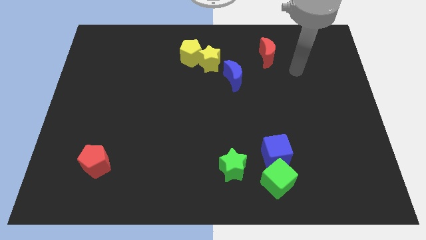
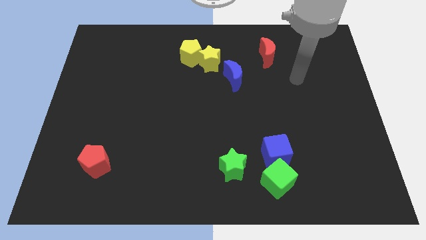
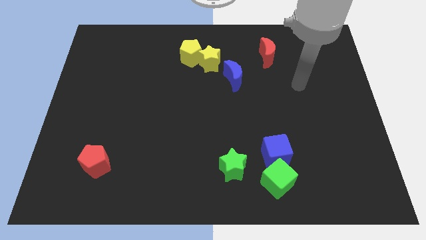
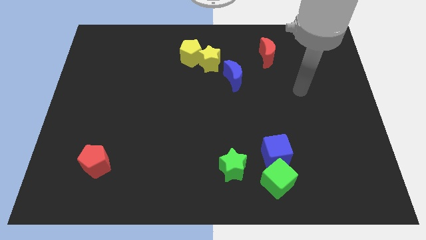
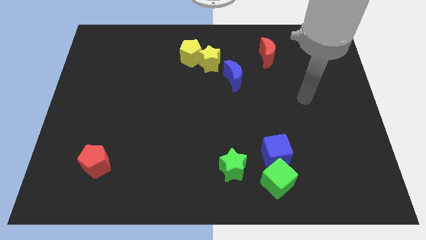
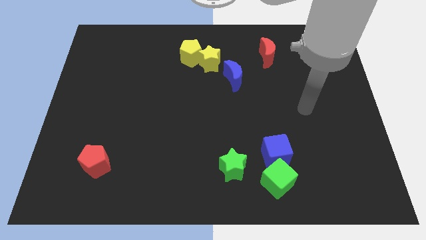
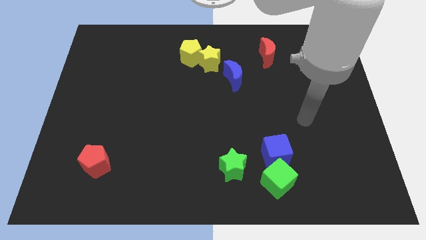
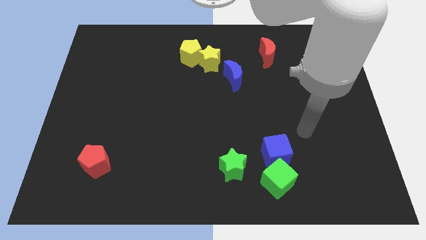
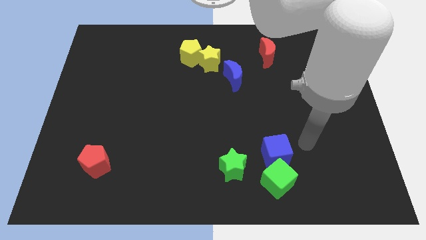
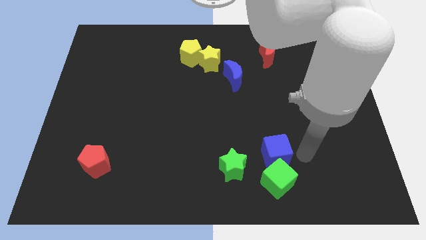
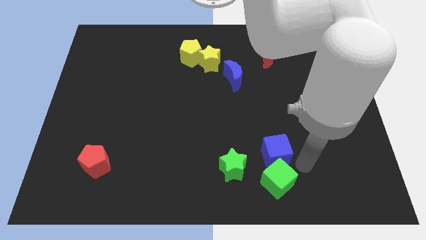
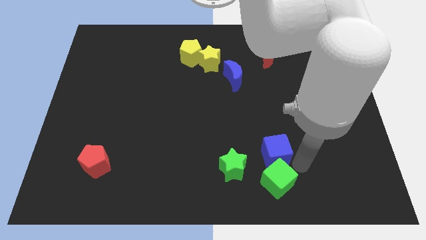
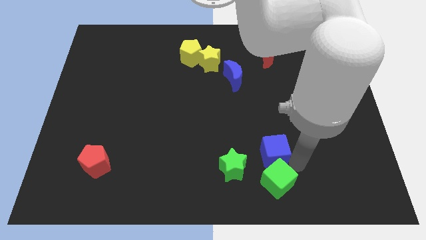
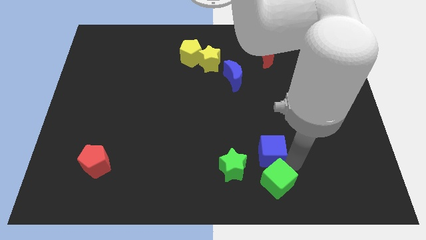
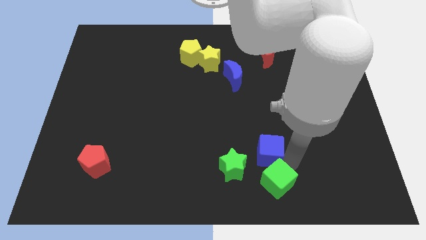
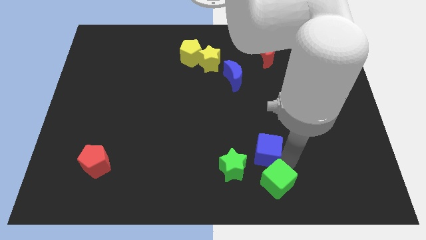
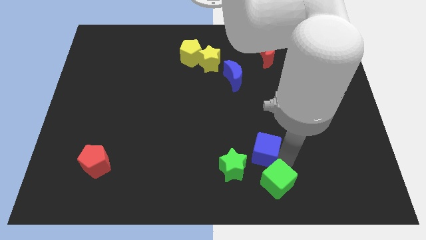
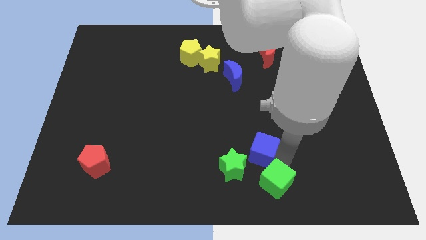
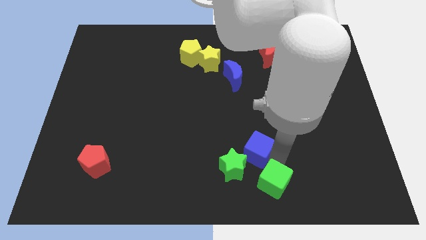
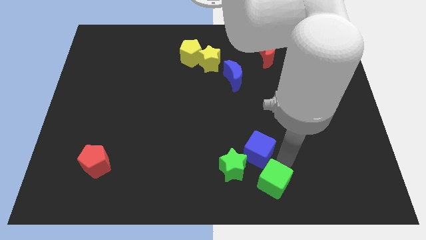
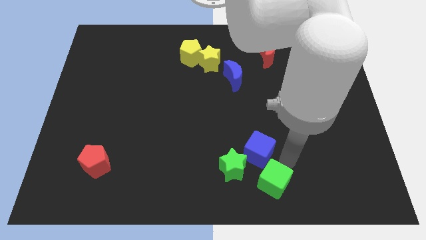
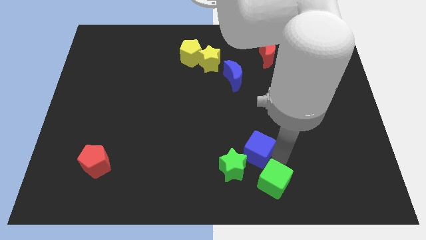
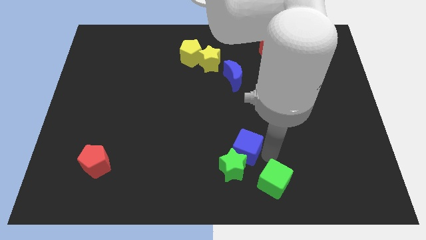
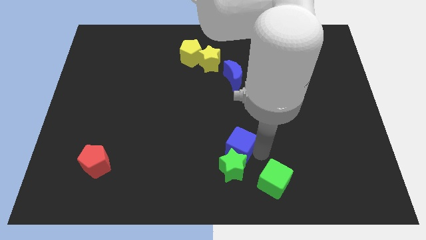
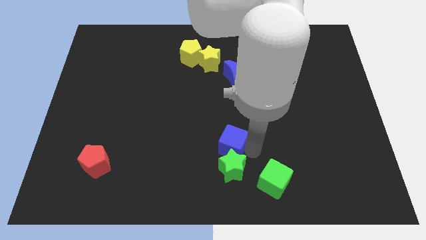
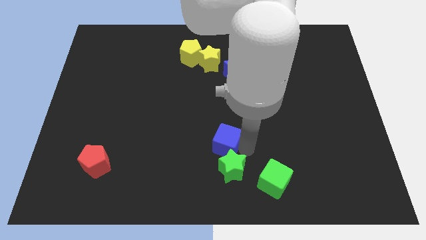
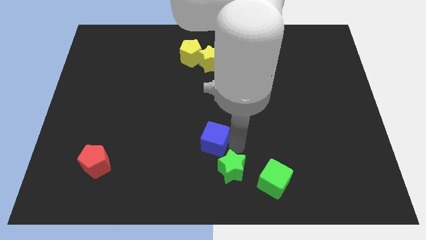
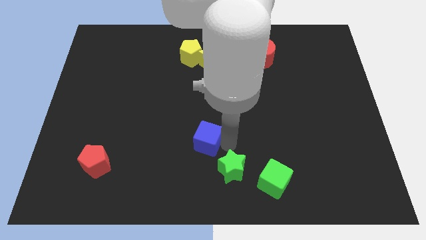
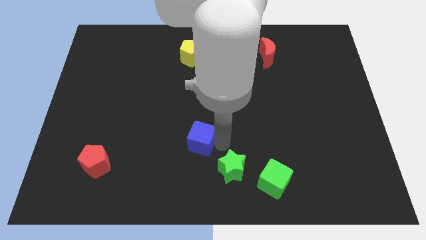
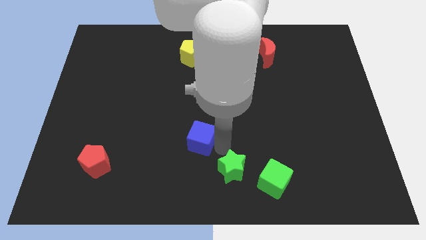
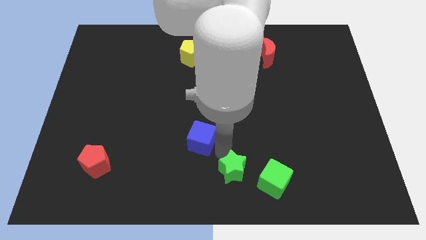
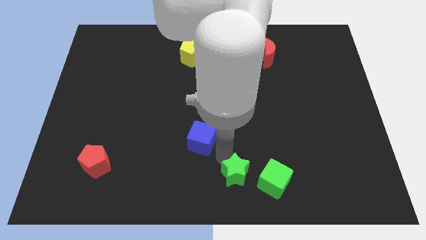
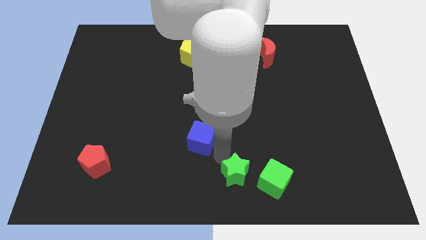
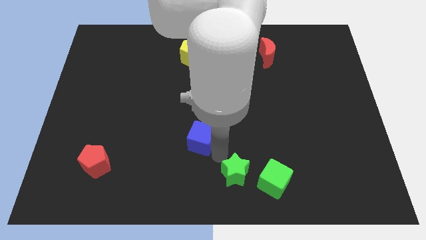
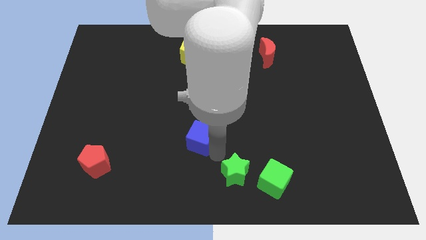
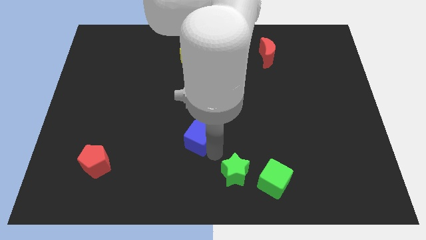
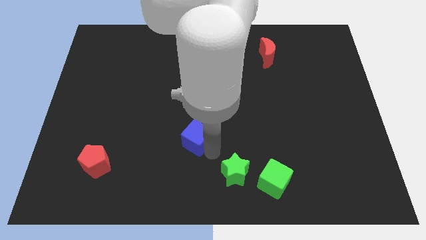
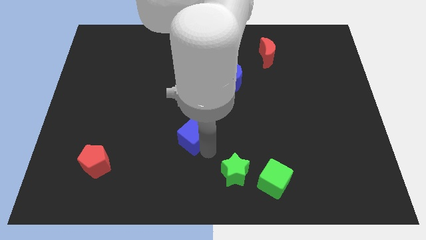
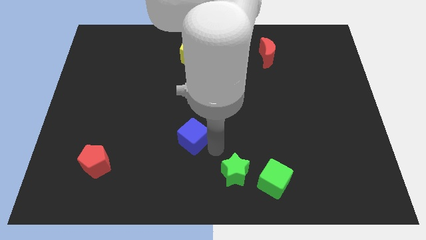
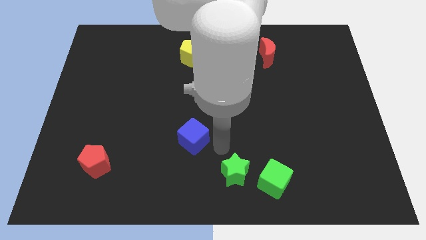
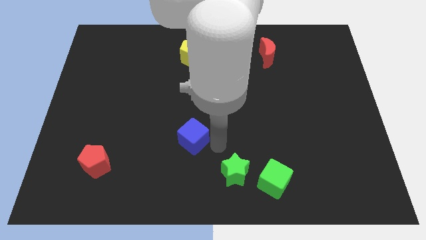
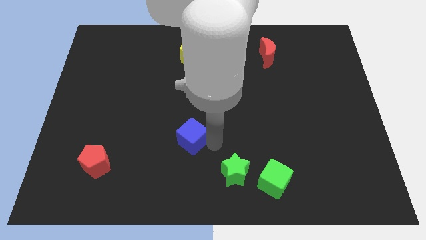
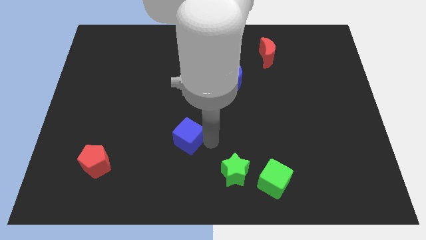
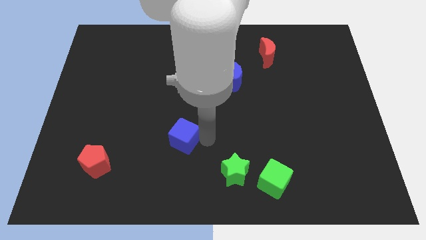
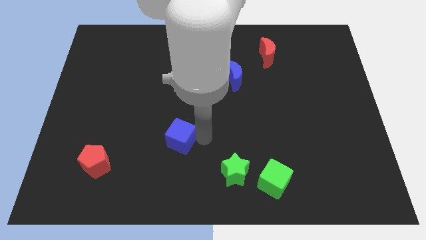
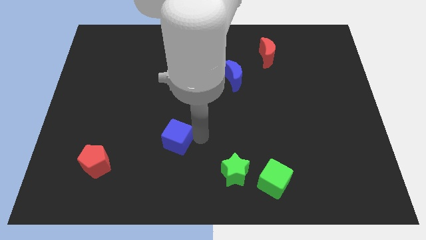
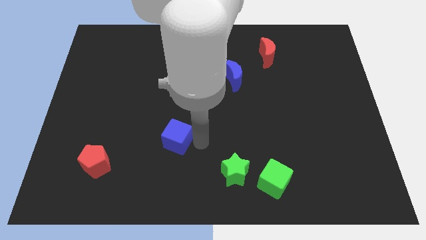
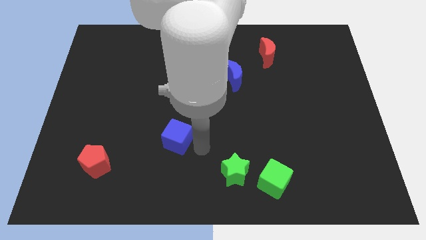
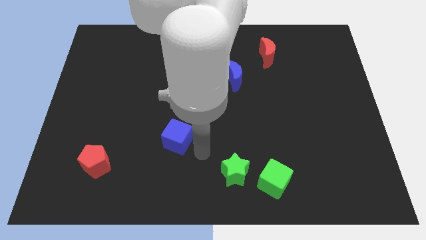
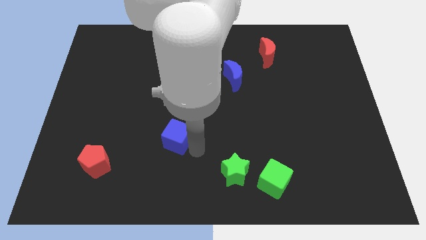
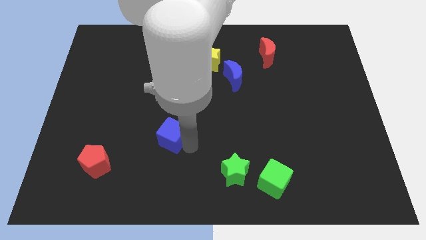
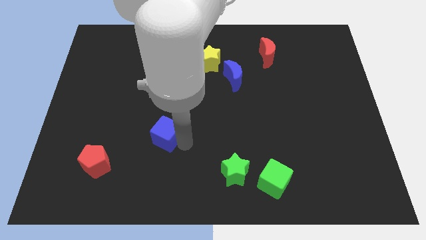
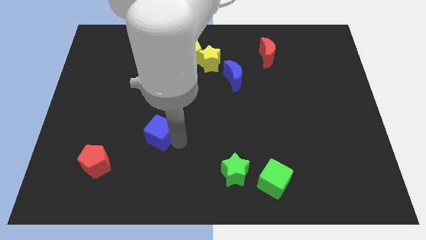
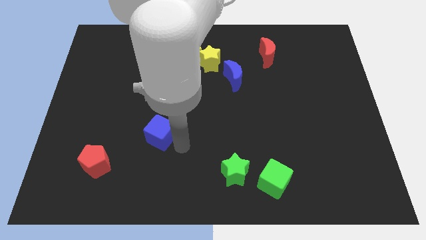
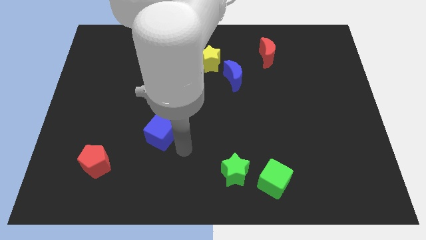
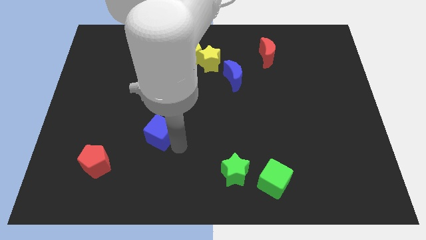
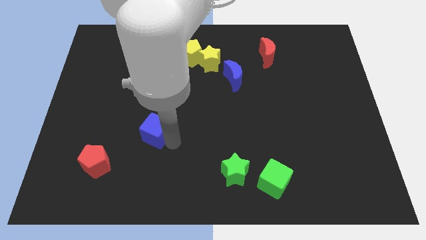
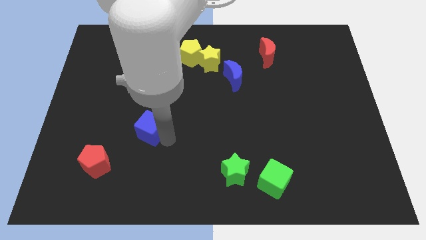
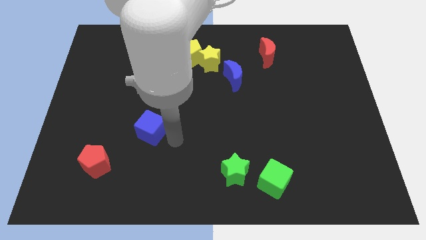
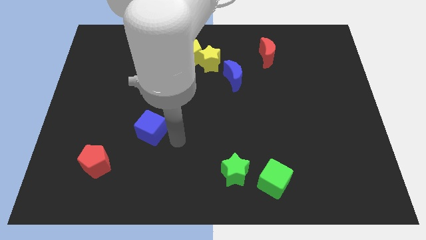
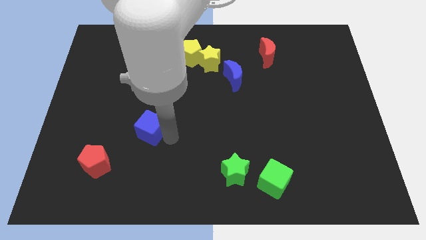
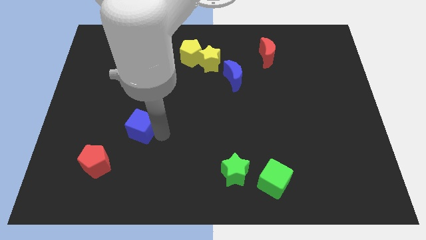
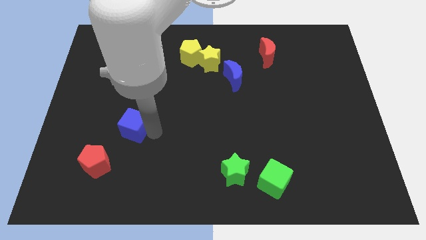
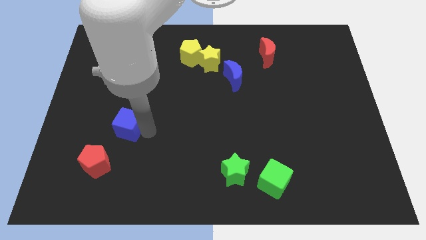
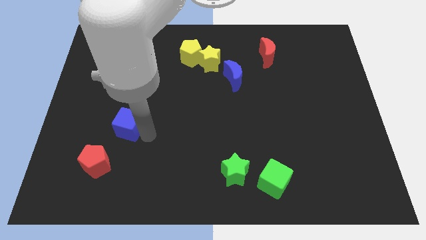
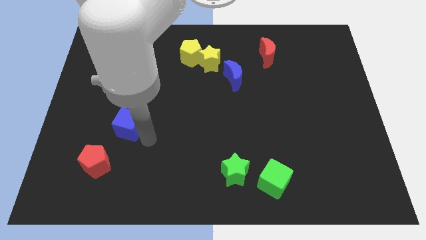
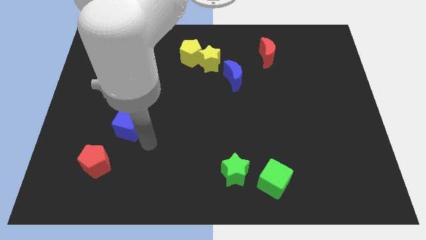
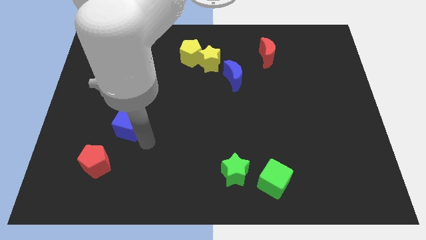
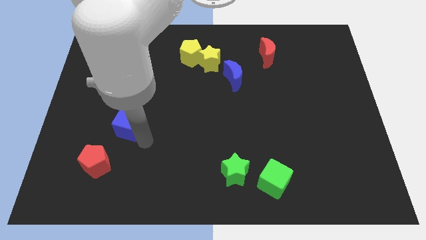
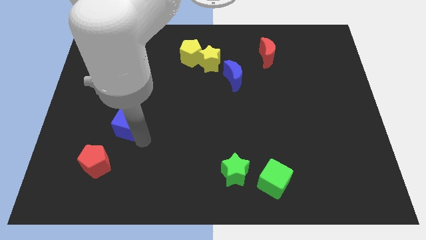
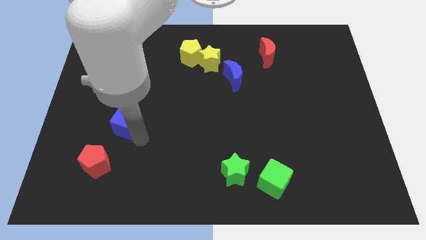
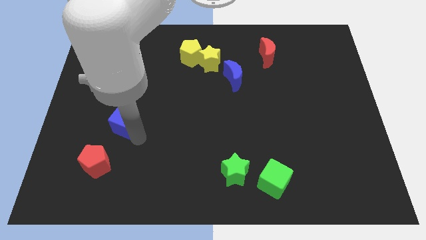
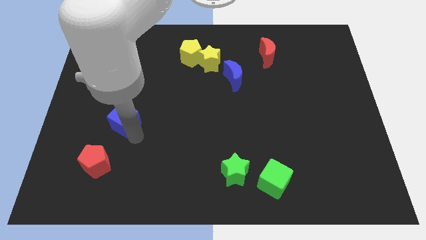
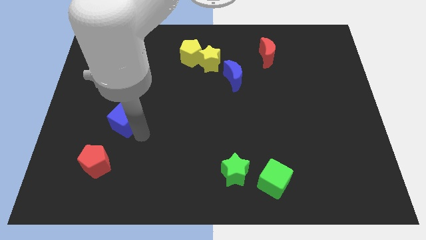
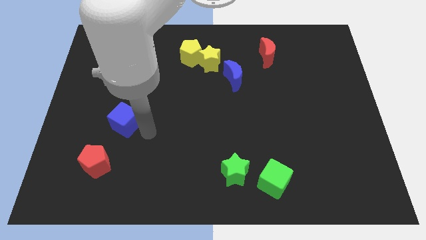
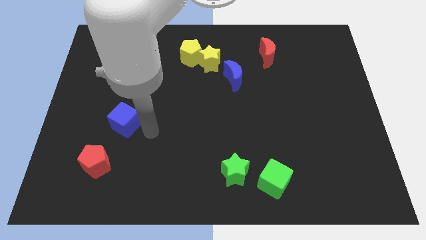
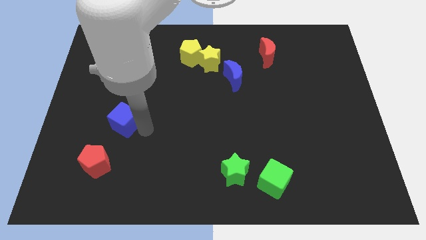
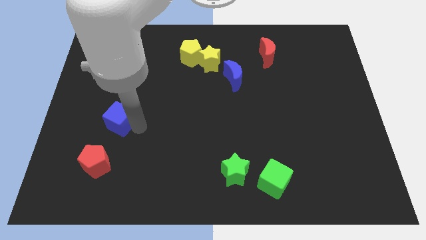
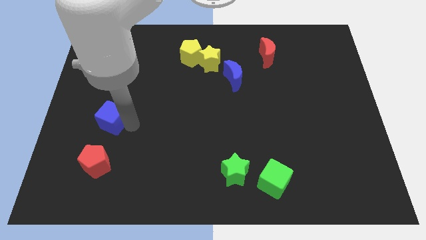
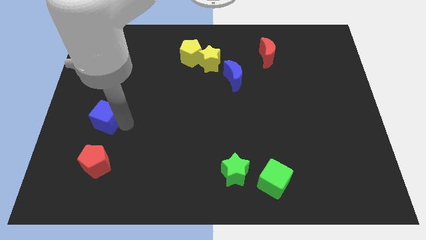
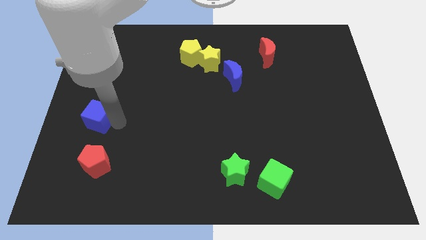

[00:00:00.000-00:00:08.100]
put the blue cube to the left side
